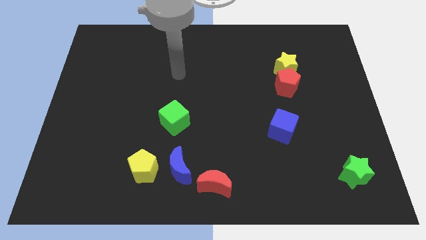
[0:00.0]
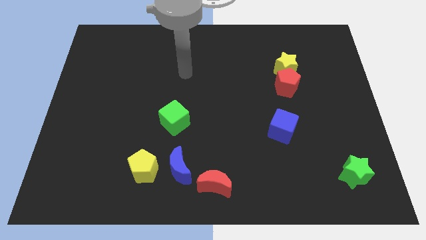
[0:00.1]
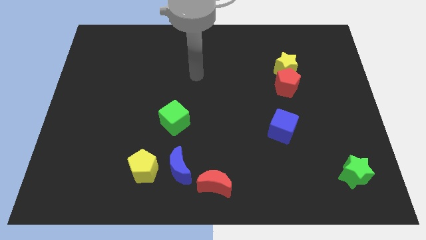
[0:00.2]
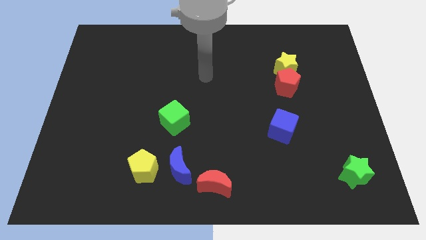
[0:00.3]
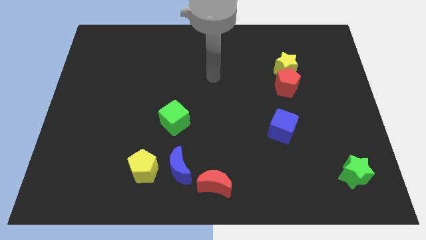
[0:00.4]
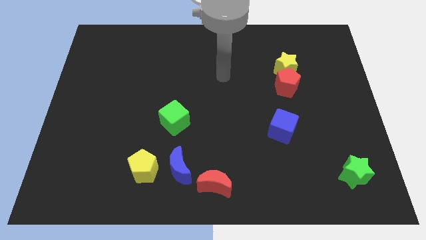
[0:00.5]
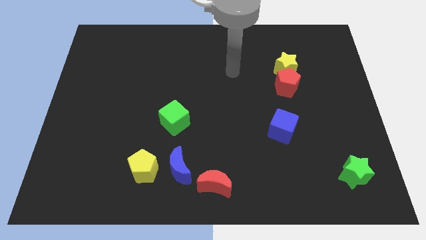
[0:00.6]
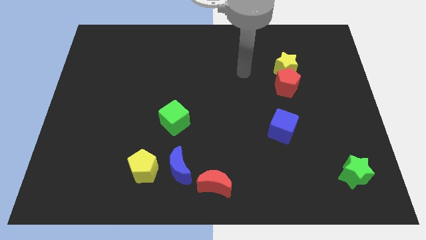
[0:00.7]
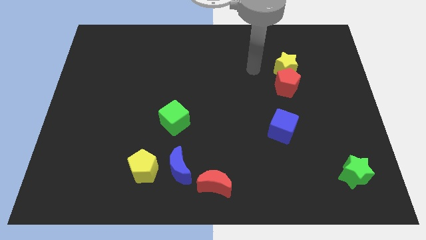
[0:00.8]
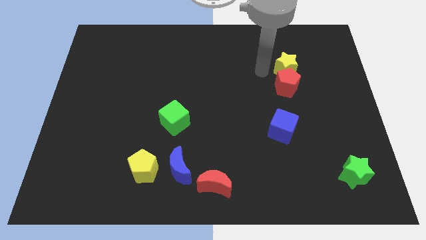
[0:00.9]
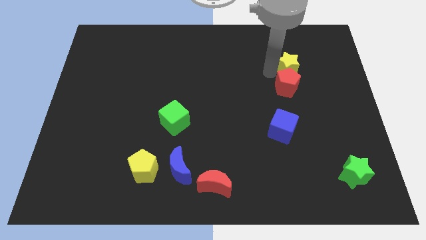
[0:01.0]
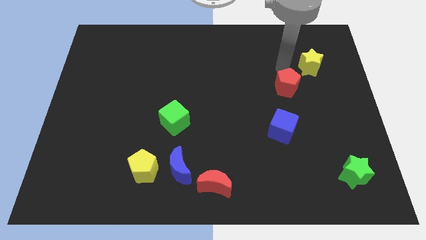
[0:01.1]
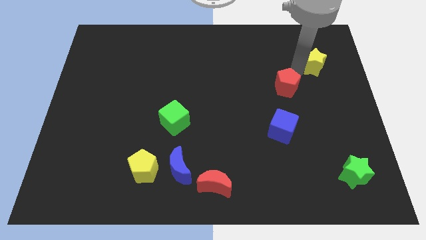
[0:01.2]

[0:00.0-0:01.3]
separate the red pentagon from the yellow star

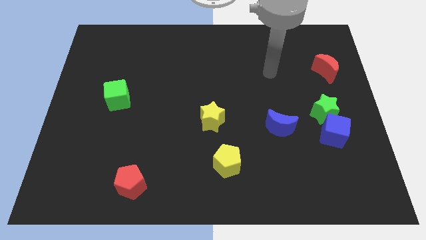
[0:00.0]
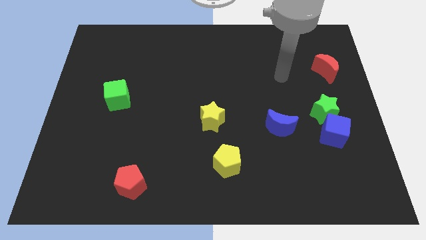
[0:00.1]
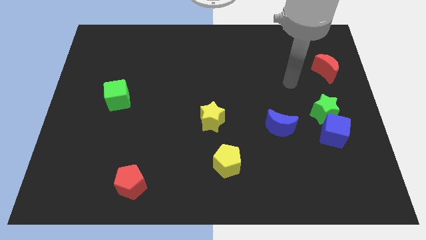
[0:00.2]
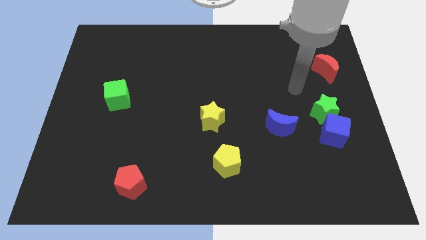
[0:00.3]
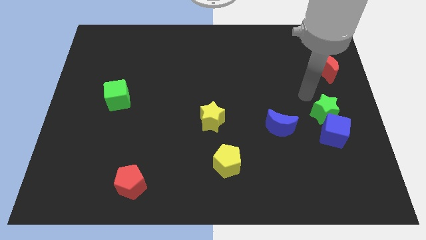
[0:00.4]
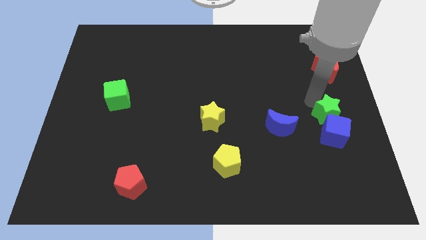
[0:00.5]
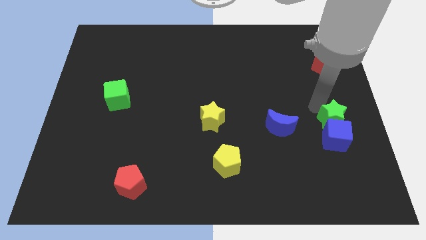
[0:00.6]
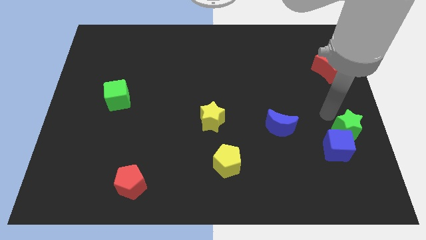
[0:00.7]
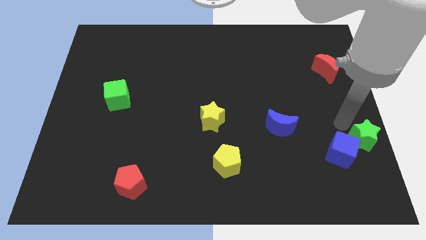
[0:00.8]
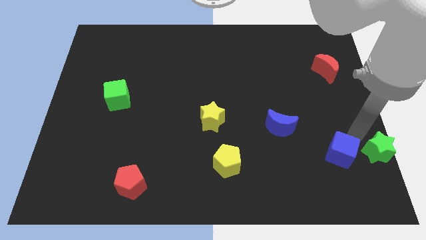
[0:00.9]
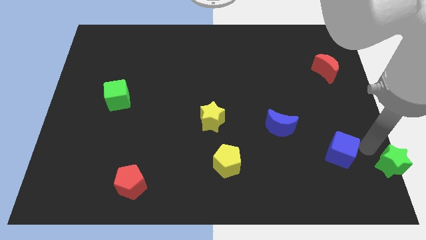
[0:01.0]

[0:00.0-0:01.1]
separate the blue cube from the green star

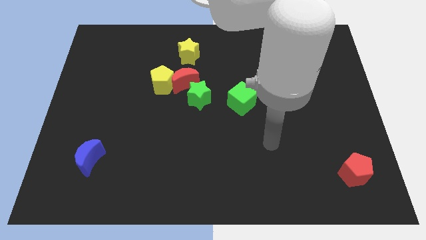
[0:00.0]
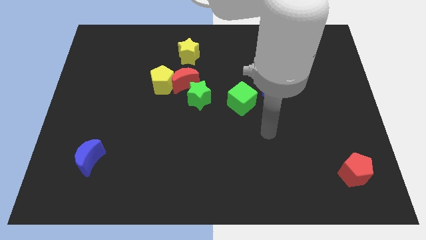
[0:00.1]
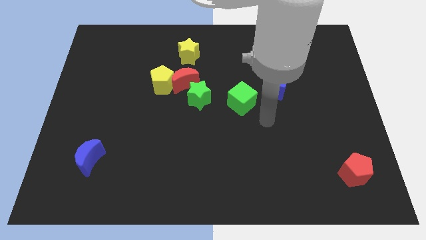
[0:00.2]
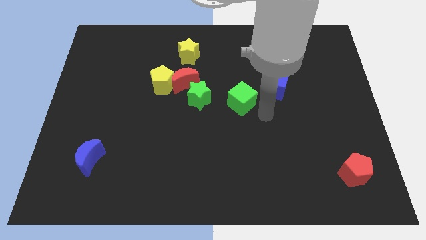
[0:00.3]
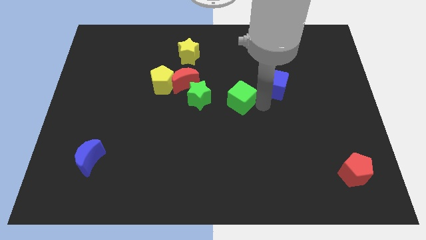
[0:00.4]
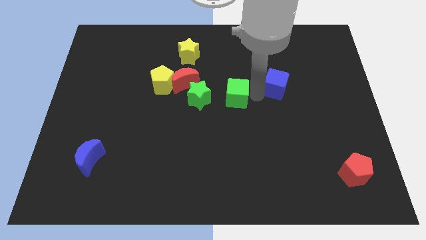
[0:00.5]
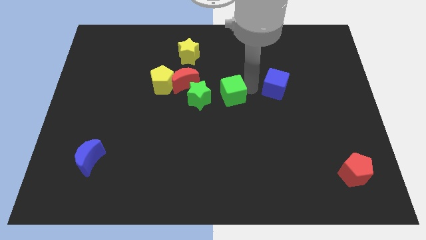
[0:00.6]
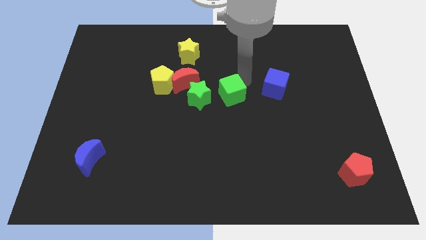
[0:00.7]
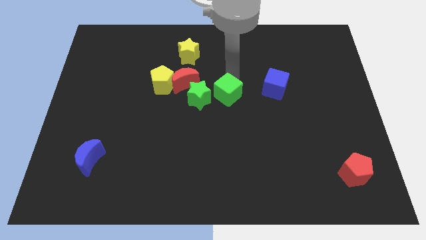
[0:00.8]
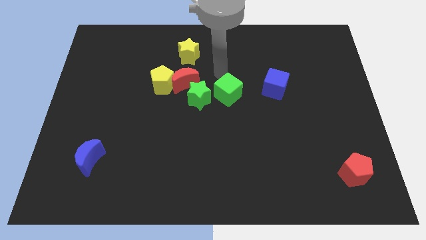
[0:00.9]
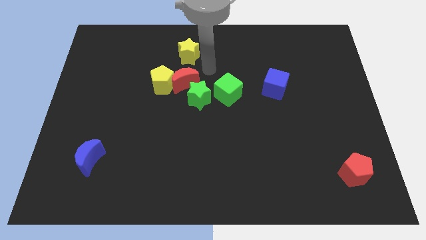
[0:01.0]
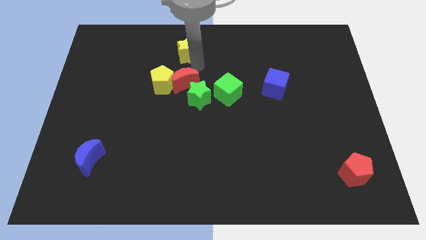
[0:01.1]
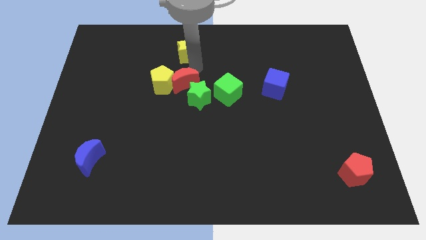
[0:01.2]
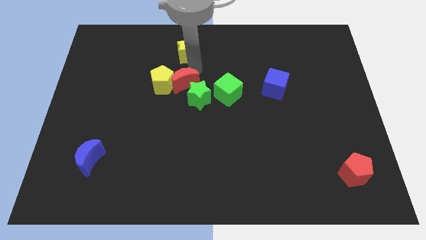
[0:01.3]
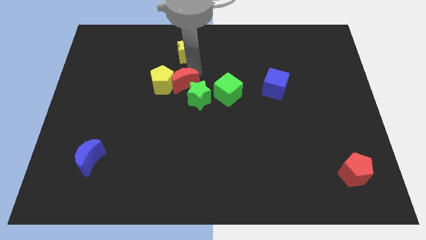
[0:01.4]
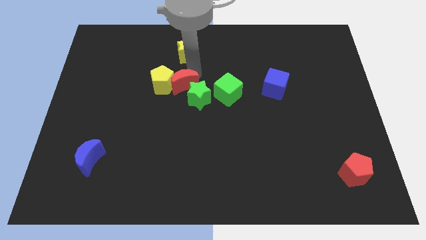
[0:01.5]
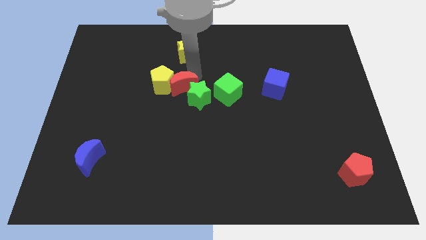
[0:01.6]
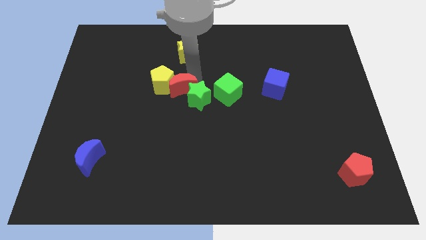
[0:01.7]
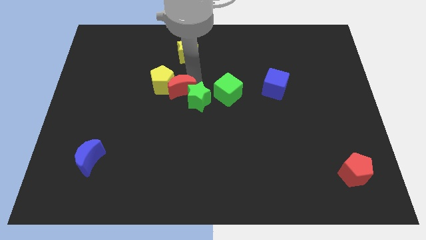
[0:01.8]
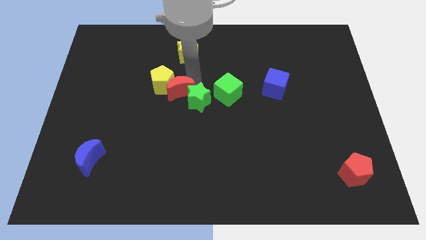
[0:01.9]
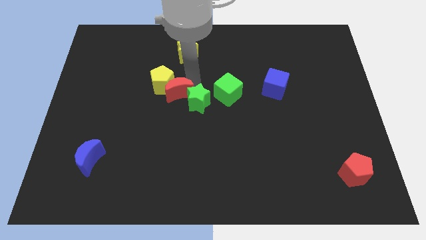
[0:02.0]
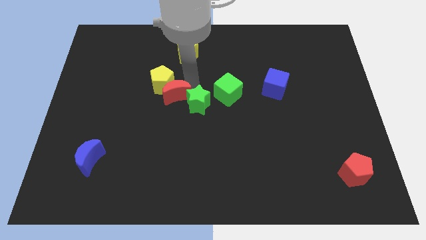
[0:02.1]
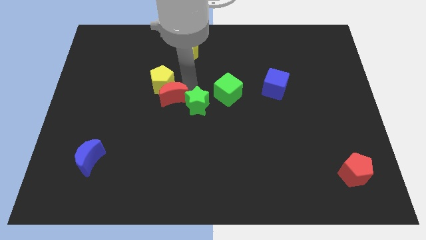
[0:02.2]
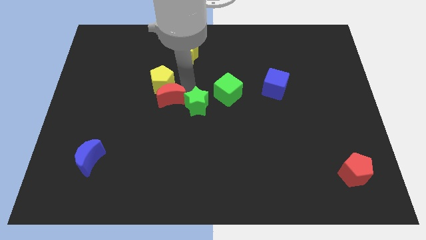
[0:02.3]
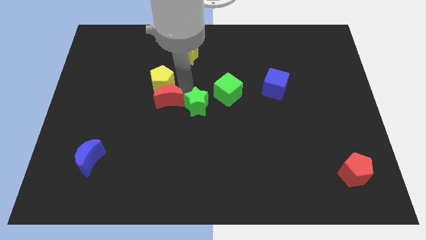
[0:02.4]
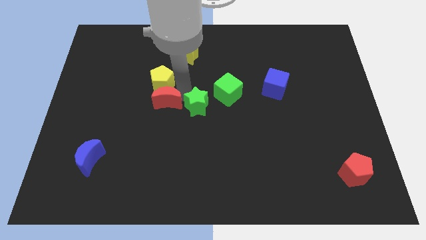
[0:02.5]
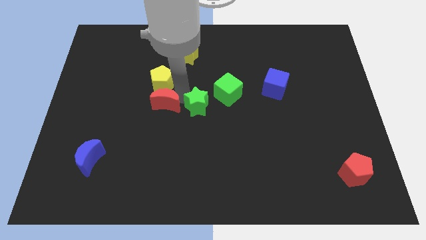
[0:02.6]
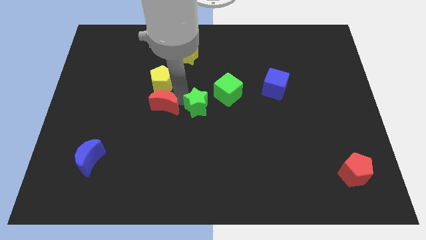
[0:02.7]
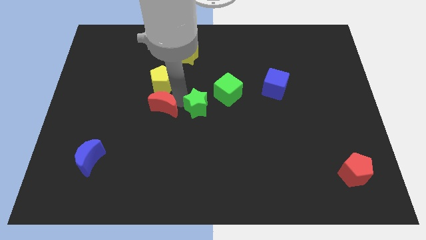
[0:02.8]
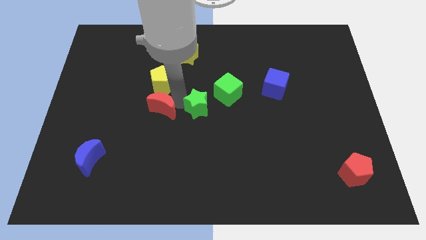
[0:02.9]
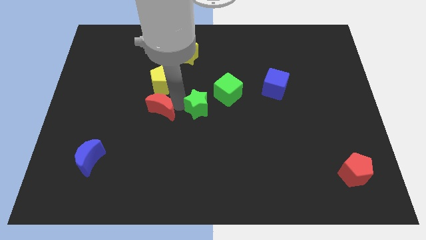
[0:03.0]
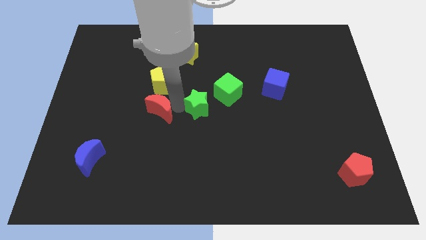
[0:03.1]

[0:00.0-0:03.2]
move the red moon away from the clump

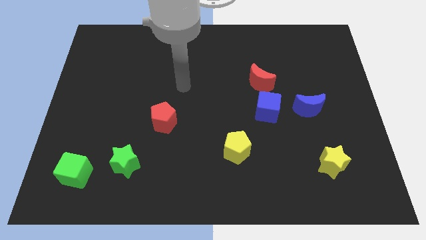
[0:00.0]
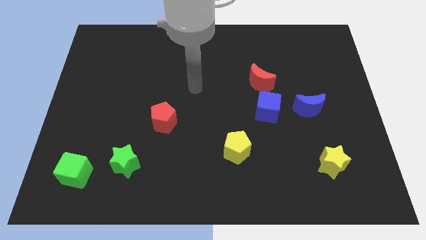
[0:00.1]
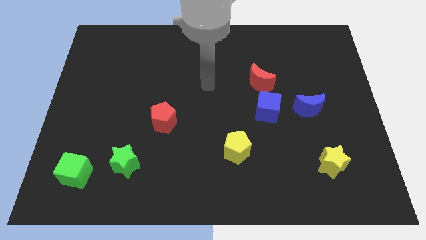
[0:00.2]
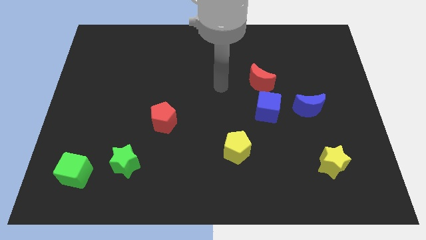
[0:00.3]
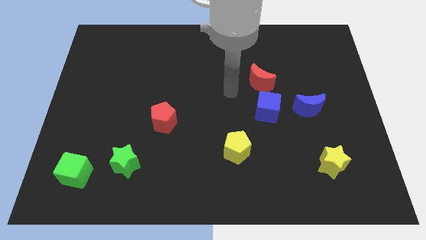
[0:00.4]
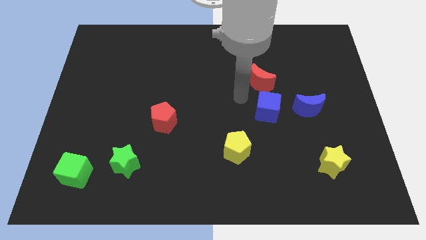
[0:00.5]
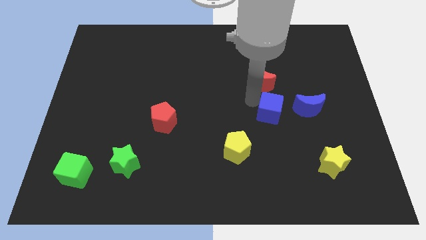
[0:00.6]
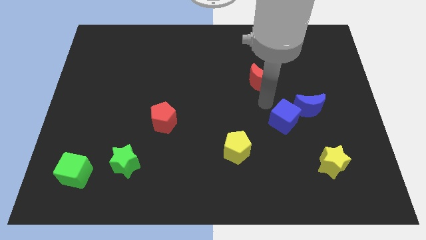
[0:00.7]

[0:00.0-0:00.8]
move the red moon away from the blue cube

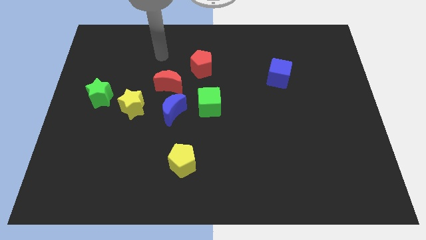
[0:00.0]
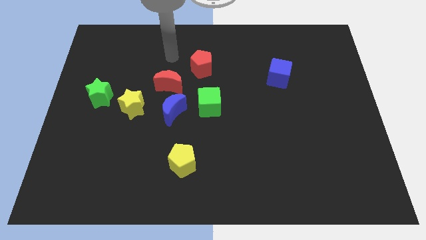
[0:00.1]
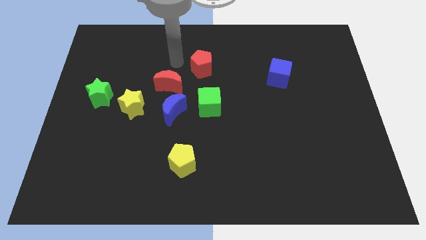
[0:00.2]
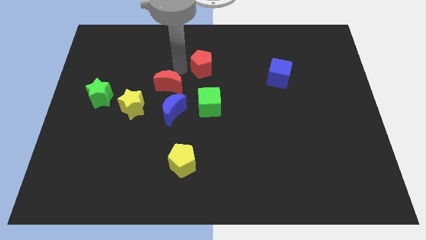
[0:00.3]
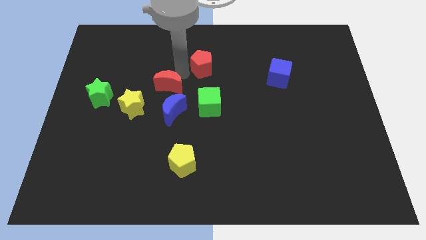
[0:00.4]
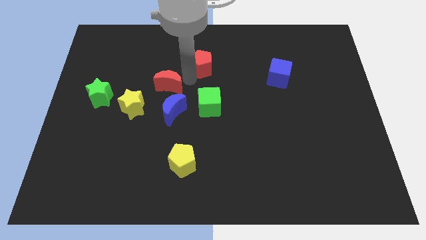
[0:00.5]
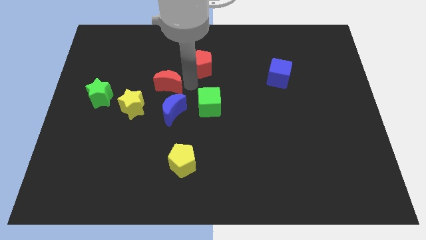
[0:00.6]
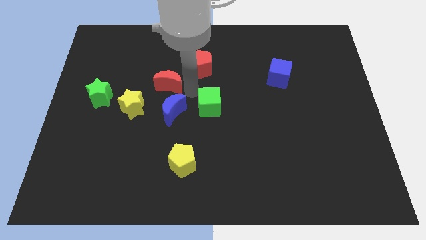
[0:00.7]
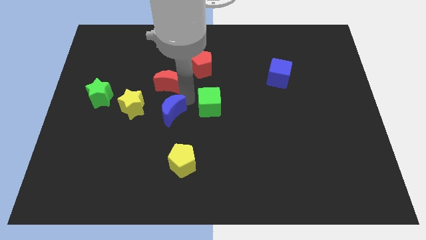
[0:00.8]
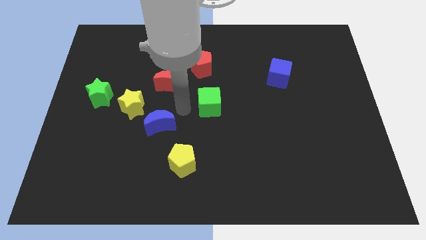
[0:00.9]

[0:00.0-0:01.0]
move the green cube away from the blue moon

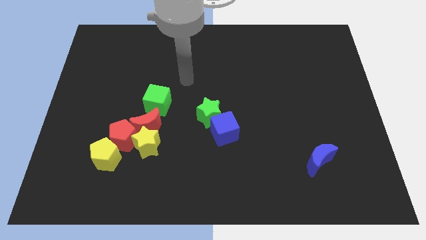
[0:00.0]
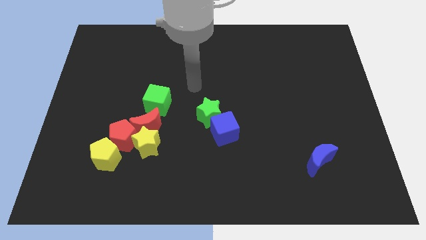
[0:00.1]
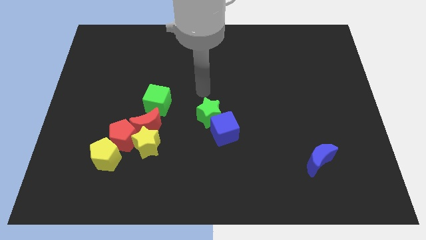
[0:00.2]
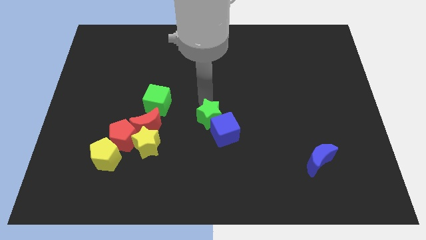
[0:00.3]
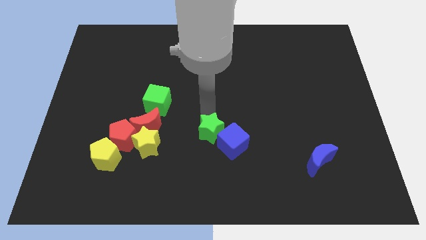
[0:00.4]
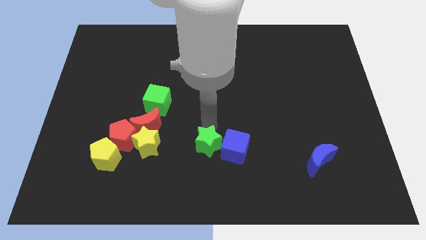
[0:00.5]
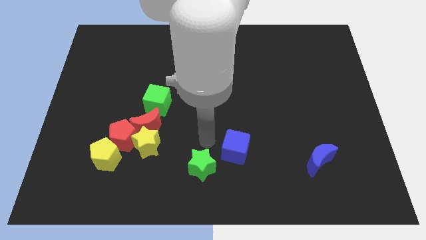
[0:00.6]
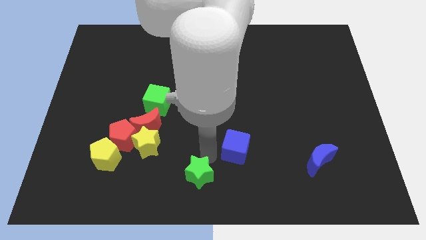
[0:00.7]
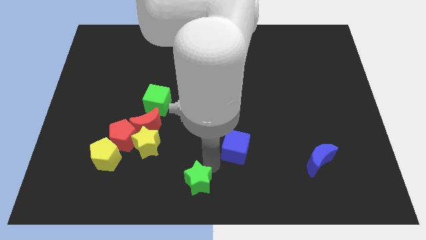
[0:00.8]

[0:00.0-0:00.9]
move the blue cube away from the green star

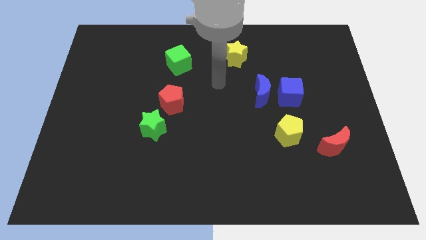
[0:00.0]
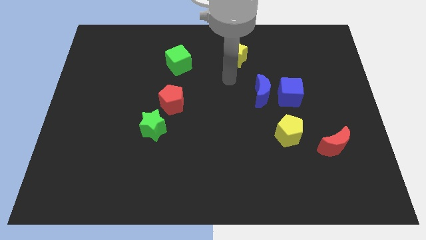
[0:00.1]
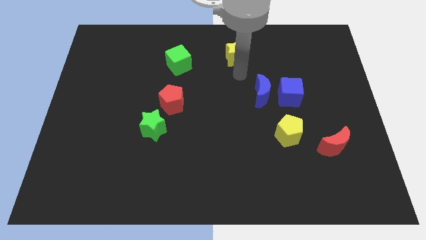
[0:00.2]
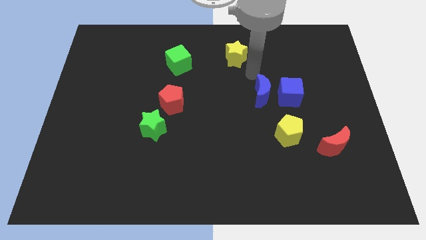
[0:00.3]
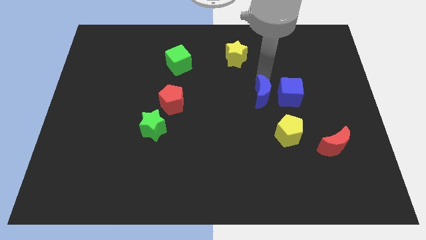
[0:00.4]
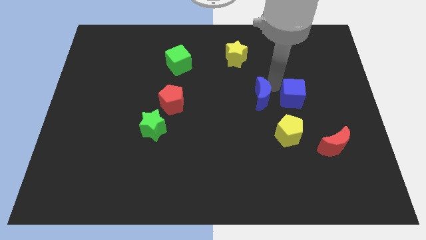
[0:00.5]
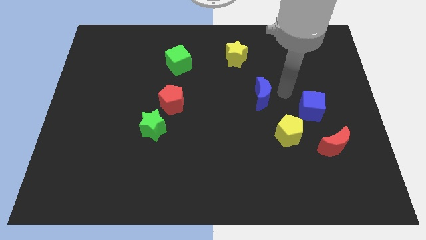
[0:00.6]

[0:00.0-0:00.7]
separate the blue moon from the blue cube

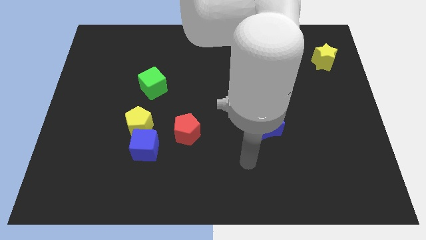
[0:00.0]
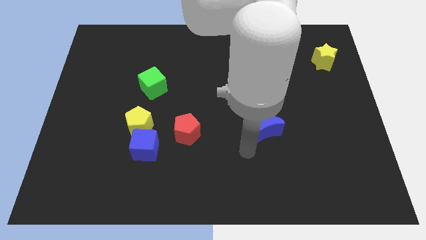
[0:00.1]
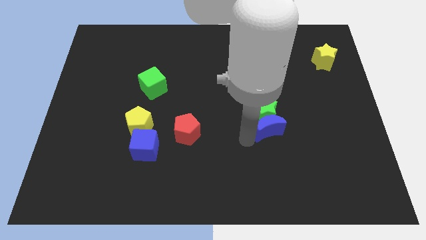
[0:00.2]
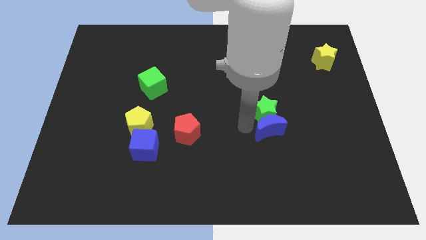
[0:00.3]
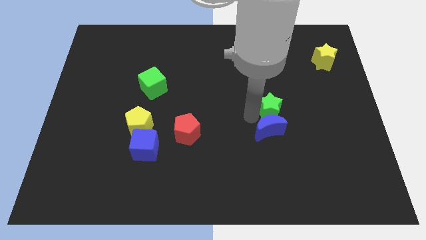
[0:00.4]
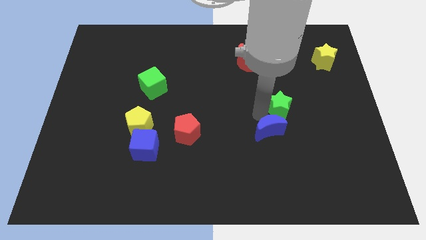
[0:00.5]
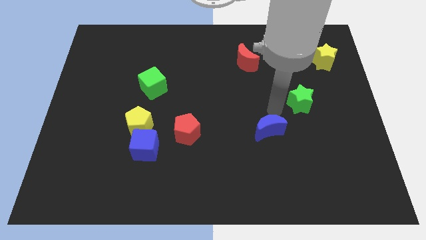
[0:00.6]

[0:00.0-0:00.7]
pull the blue moon apart from the green star
